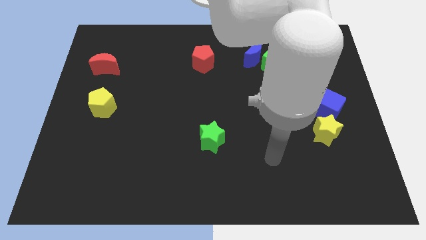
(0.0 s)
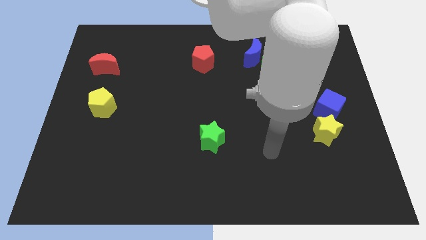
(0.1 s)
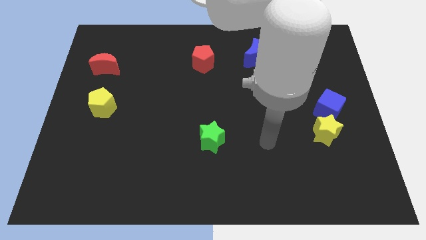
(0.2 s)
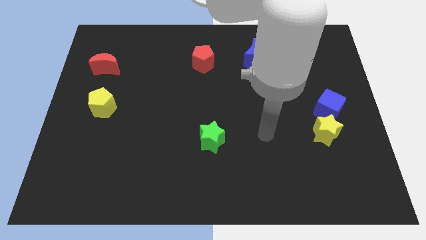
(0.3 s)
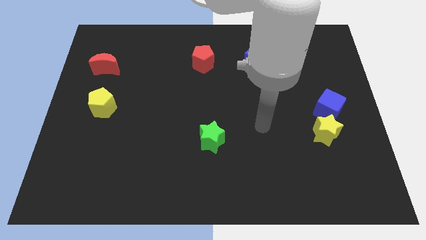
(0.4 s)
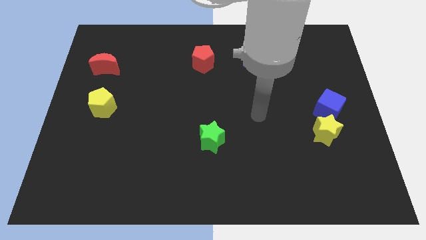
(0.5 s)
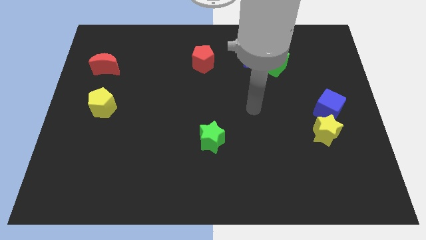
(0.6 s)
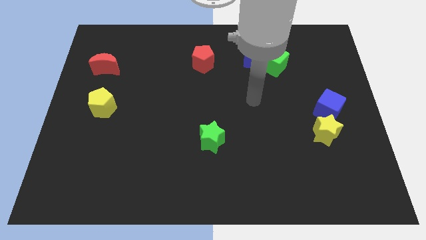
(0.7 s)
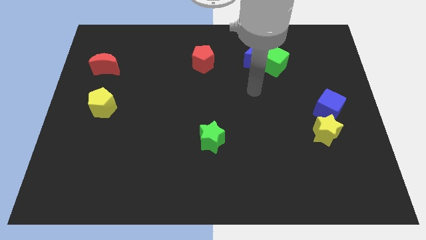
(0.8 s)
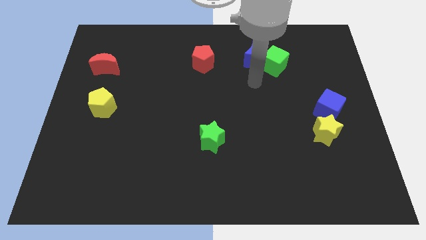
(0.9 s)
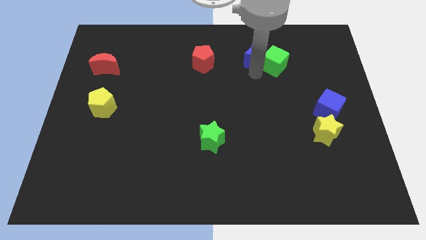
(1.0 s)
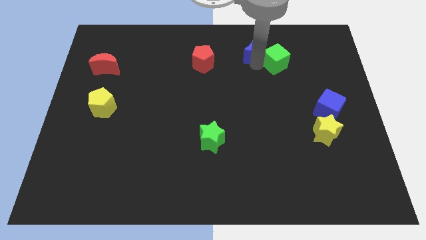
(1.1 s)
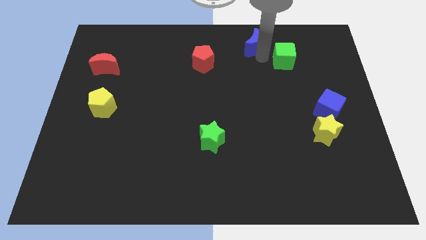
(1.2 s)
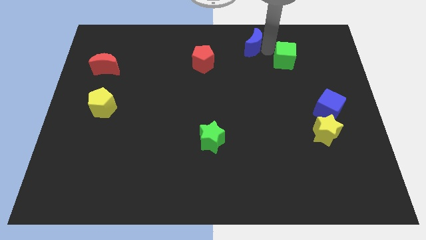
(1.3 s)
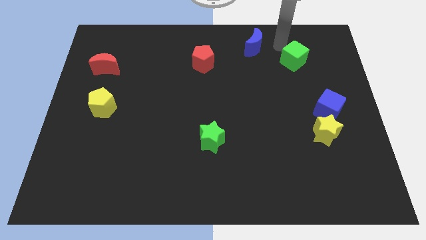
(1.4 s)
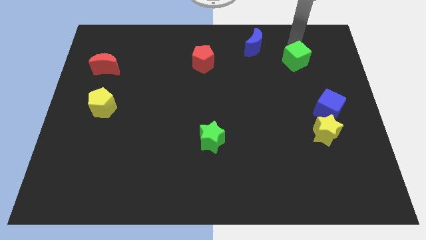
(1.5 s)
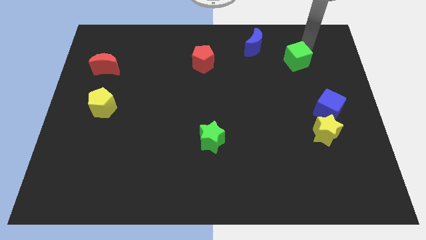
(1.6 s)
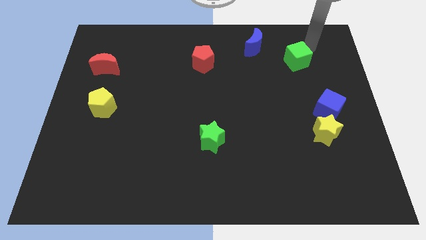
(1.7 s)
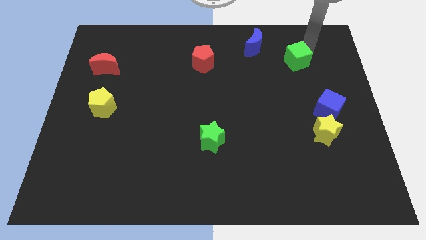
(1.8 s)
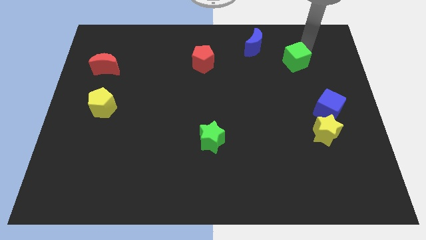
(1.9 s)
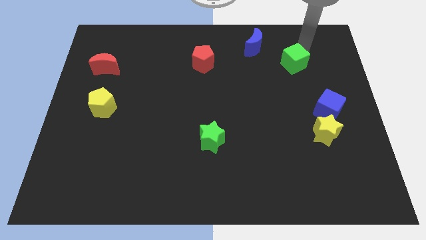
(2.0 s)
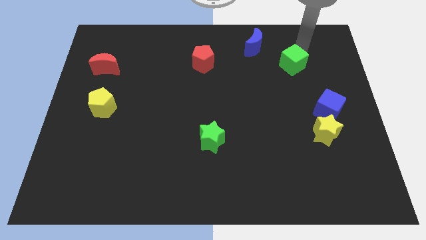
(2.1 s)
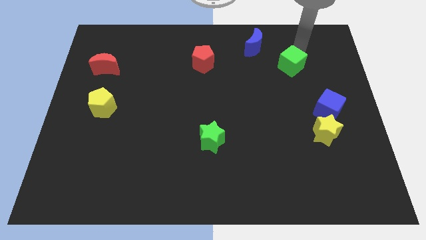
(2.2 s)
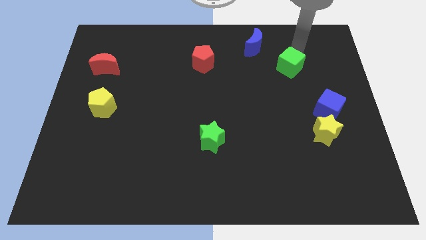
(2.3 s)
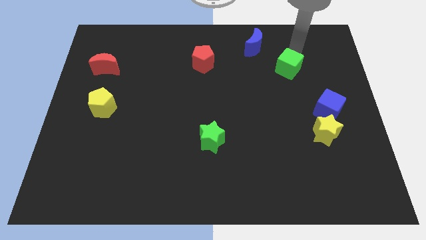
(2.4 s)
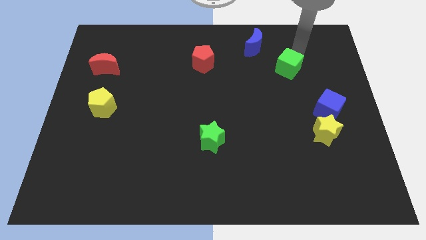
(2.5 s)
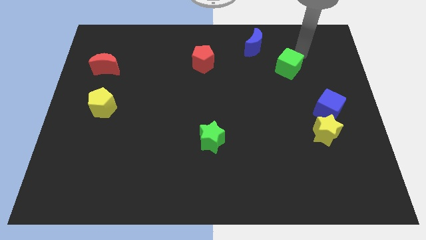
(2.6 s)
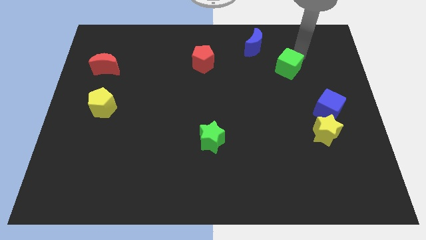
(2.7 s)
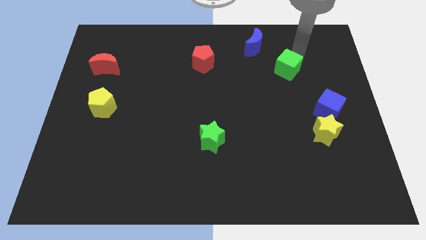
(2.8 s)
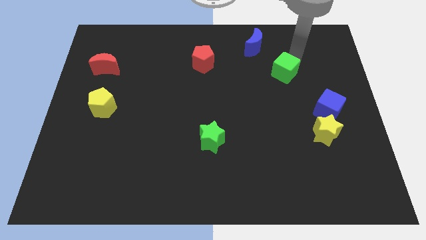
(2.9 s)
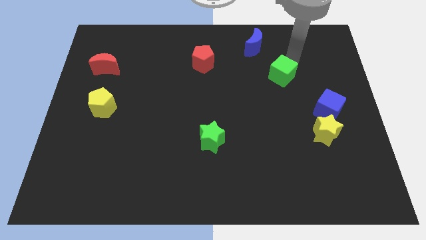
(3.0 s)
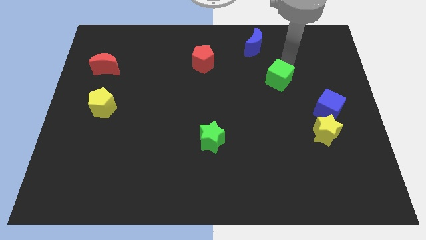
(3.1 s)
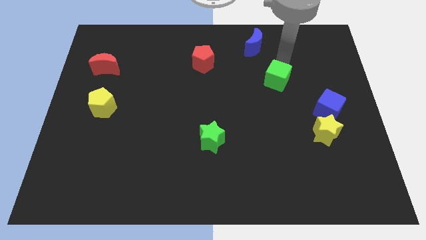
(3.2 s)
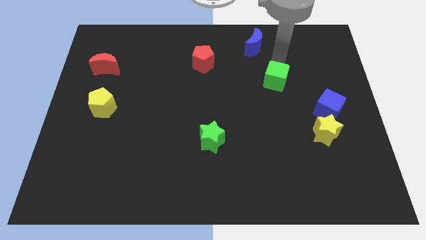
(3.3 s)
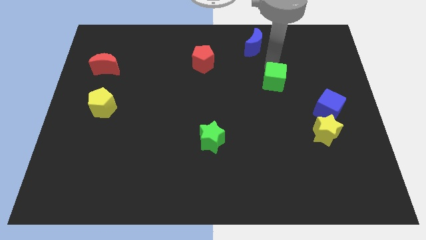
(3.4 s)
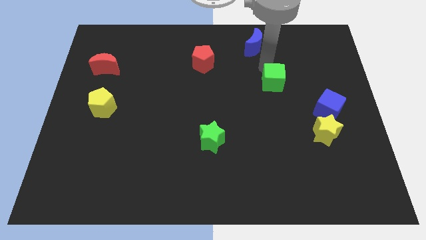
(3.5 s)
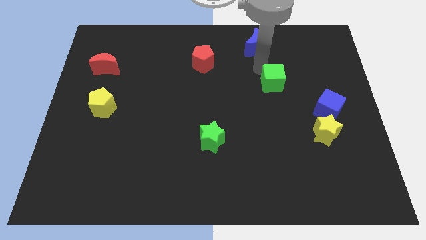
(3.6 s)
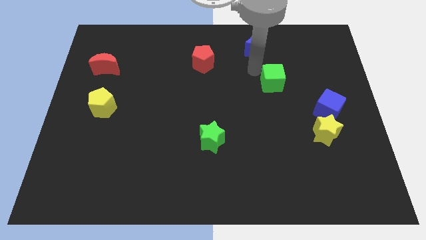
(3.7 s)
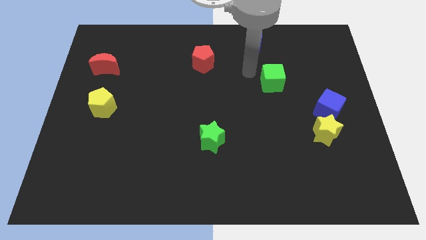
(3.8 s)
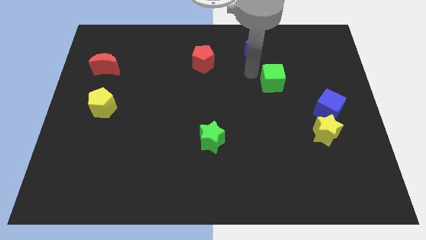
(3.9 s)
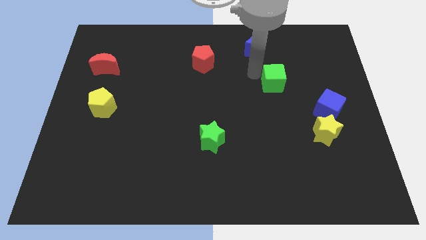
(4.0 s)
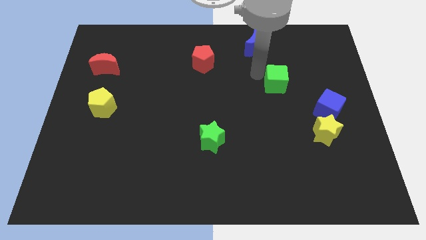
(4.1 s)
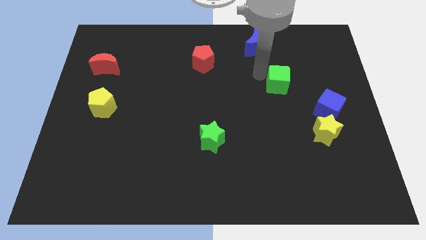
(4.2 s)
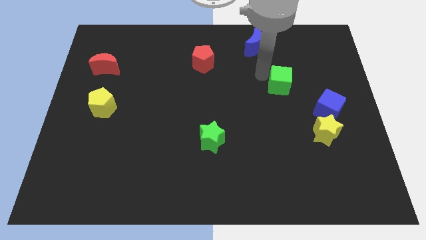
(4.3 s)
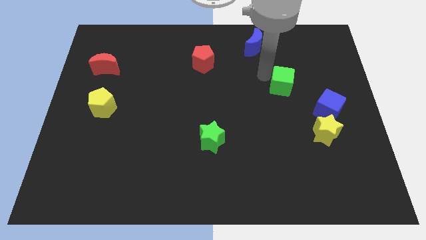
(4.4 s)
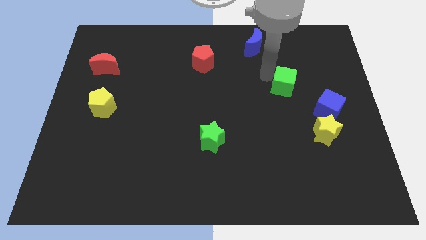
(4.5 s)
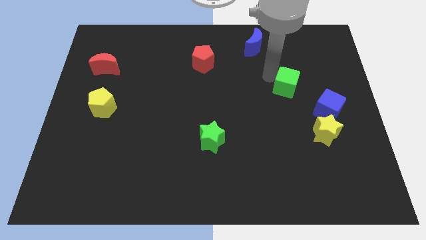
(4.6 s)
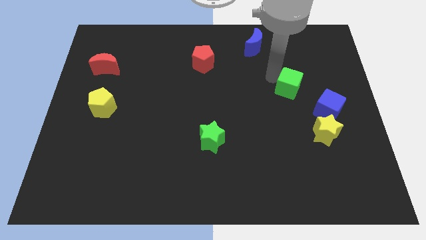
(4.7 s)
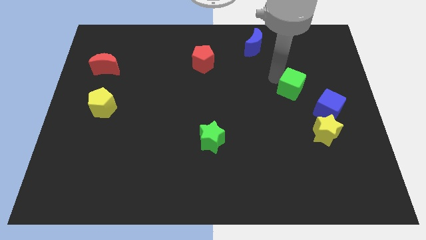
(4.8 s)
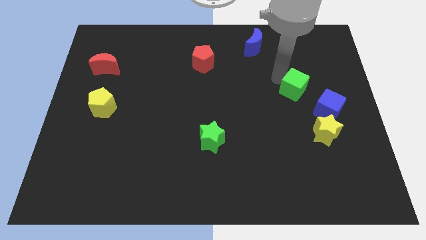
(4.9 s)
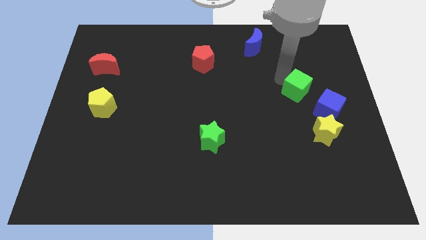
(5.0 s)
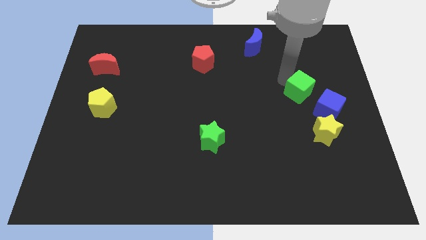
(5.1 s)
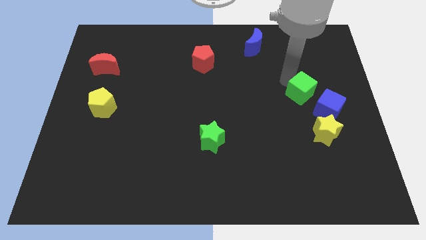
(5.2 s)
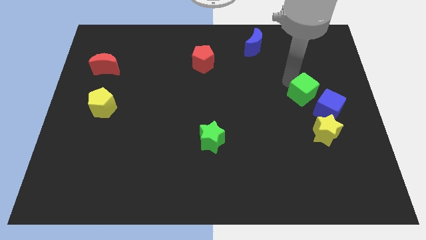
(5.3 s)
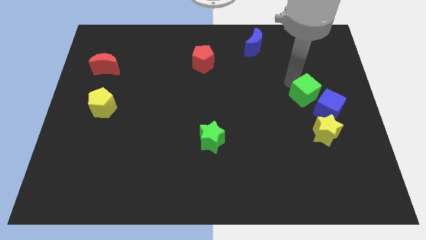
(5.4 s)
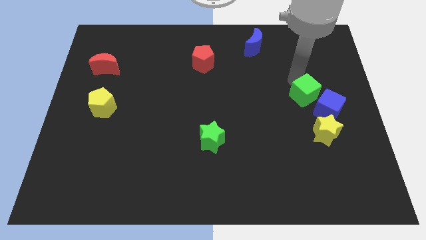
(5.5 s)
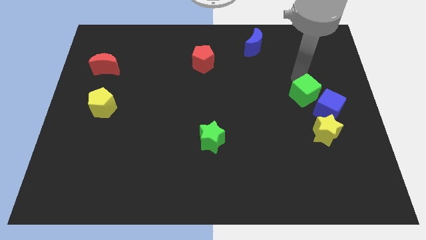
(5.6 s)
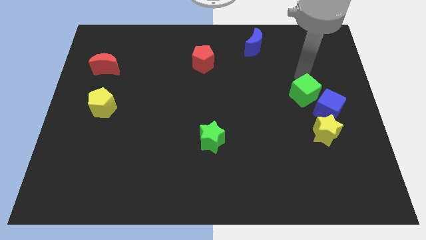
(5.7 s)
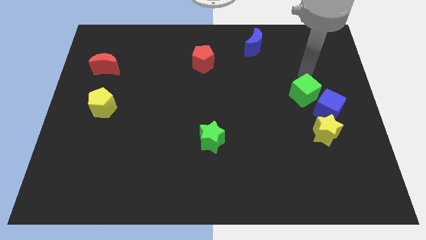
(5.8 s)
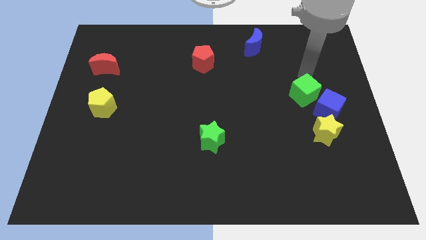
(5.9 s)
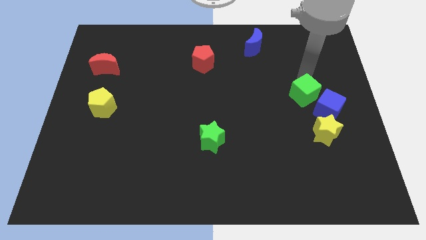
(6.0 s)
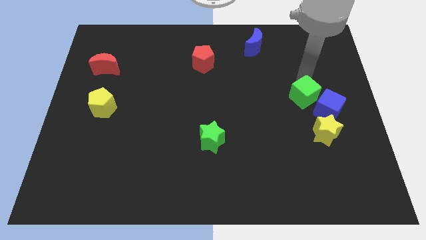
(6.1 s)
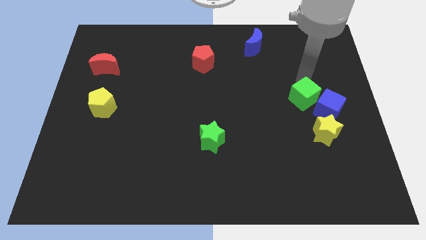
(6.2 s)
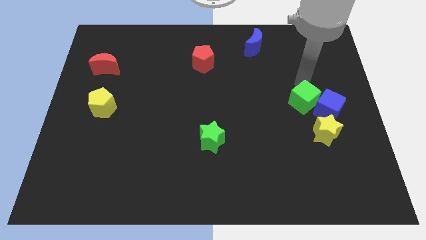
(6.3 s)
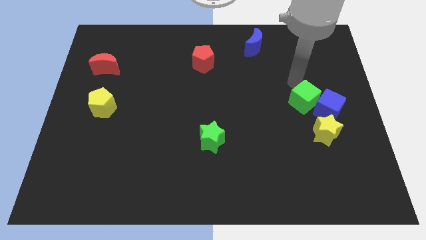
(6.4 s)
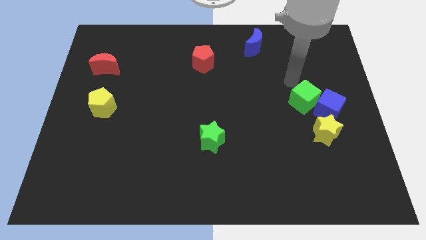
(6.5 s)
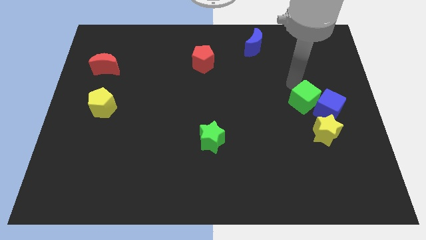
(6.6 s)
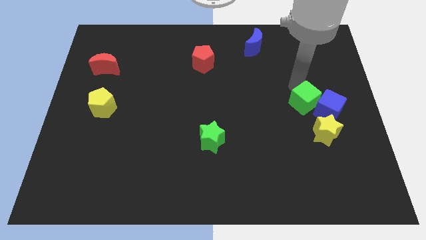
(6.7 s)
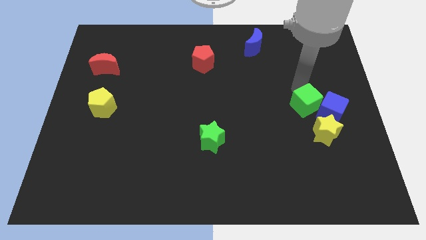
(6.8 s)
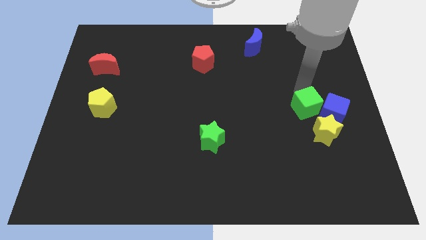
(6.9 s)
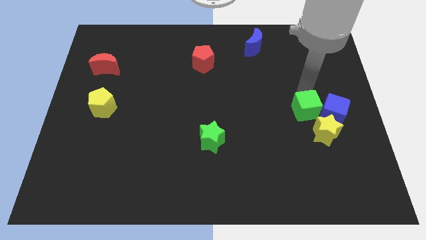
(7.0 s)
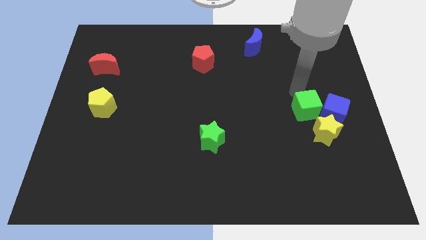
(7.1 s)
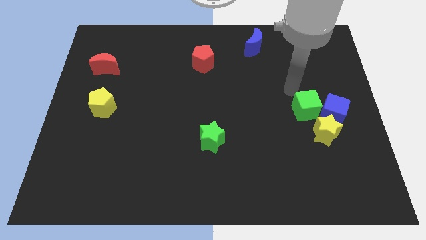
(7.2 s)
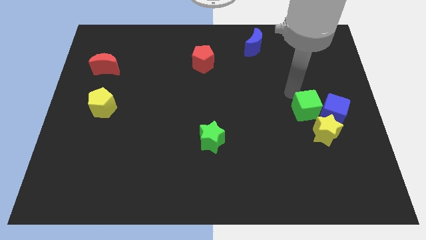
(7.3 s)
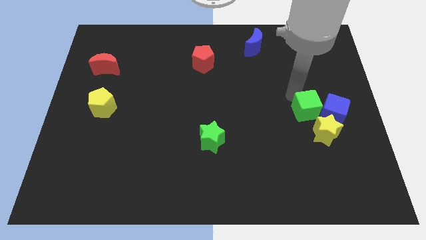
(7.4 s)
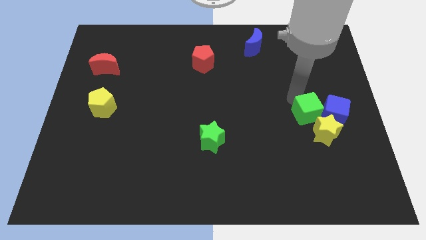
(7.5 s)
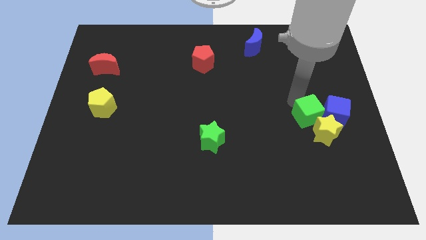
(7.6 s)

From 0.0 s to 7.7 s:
move the green cube close to the yellow star
